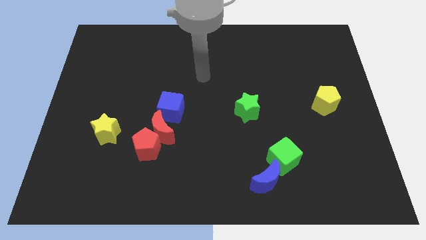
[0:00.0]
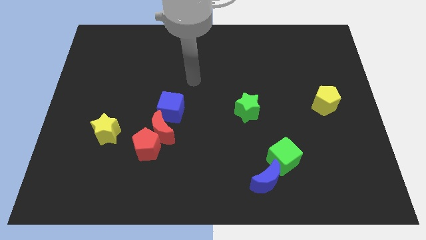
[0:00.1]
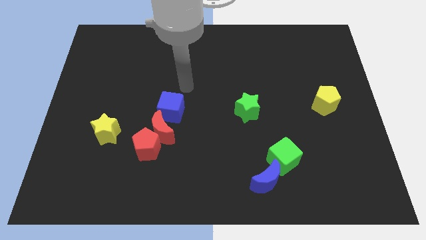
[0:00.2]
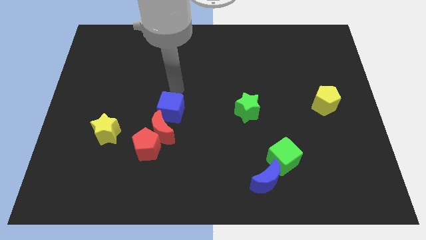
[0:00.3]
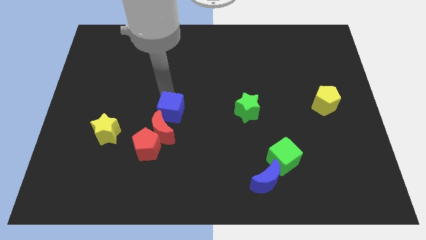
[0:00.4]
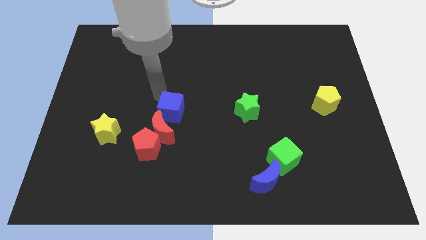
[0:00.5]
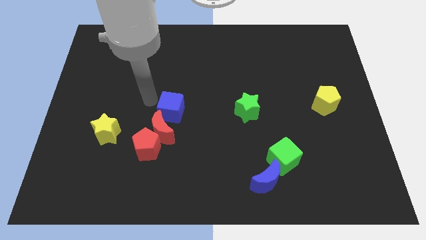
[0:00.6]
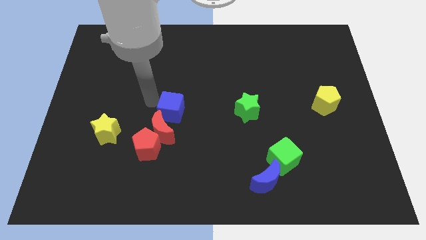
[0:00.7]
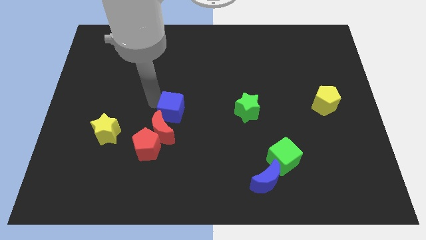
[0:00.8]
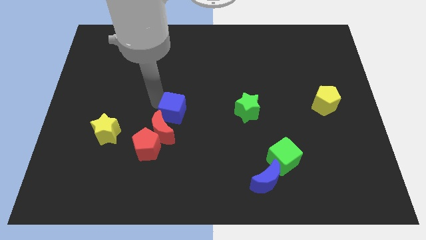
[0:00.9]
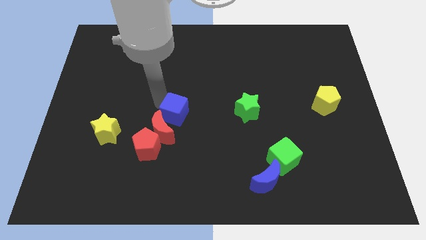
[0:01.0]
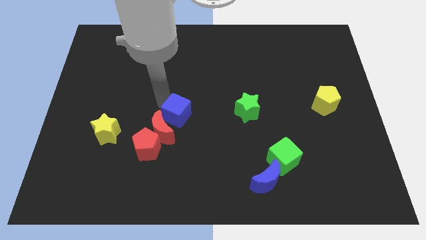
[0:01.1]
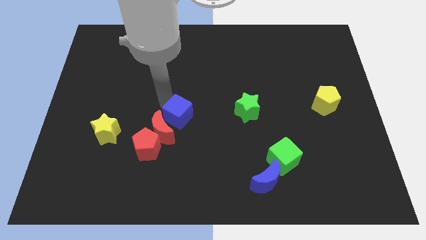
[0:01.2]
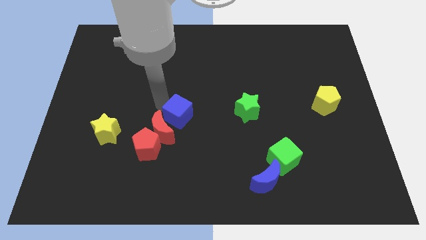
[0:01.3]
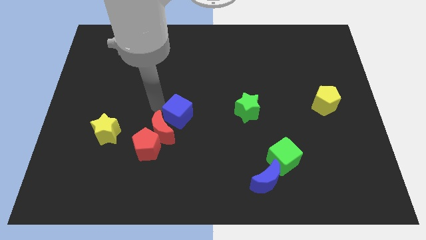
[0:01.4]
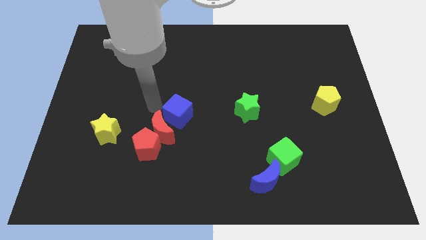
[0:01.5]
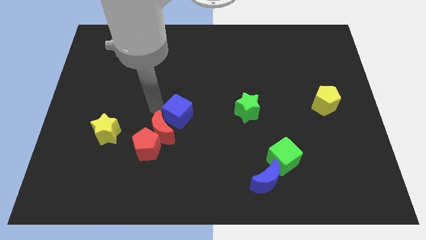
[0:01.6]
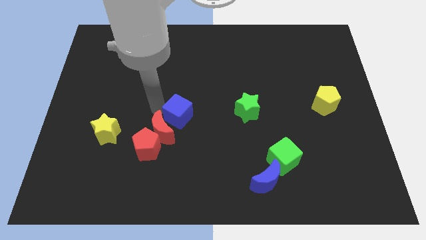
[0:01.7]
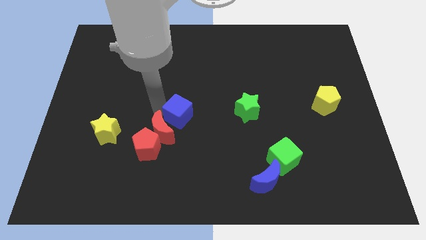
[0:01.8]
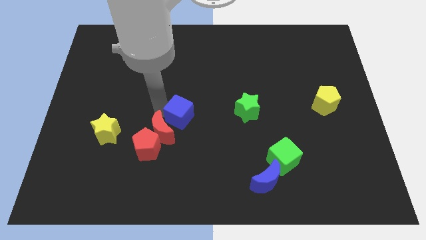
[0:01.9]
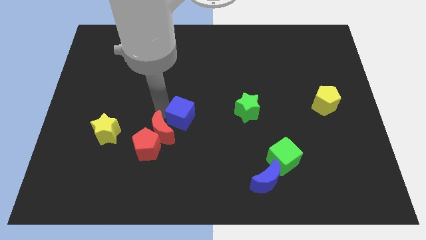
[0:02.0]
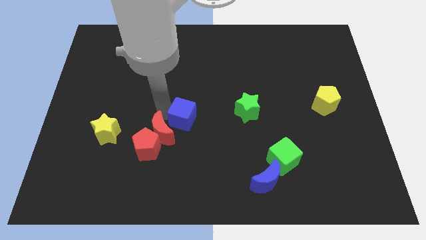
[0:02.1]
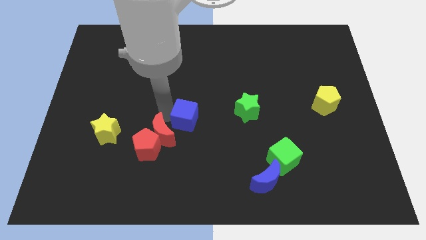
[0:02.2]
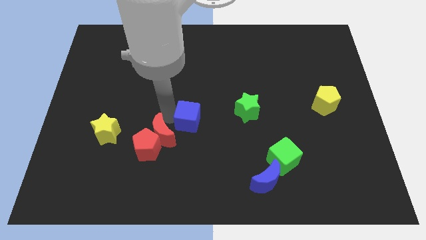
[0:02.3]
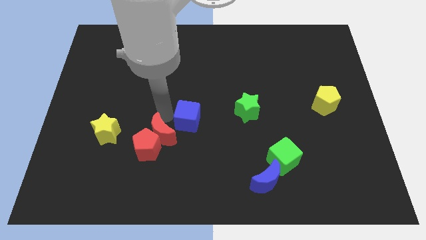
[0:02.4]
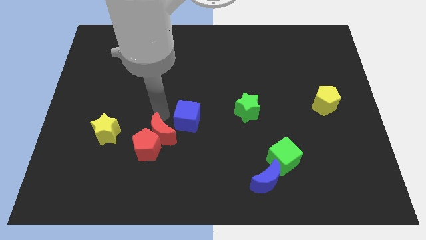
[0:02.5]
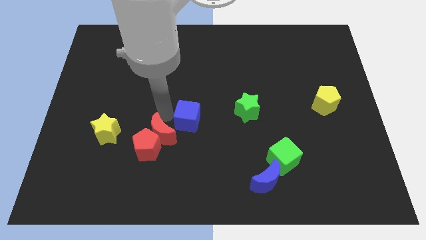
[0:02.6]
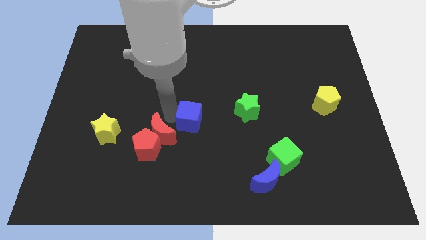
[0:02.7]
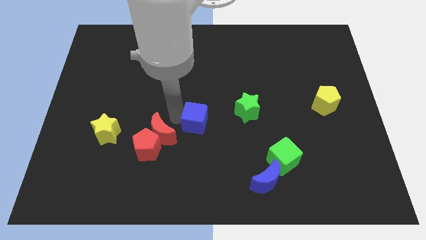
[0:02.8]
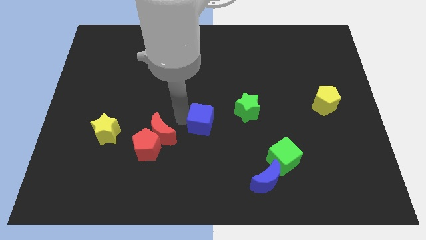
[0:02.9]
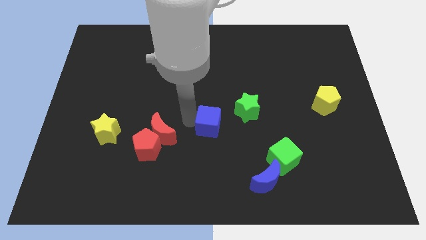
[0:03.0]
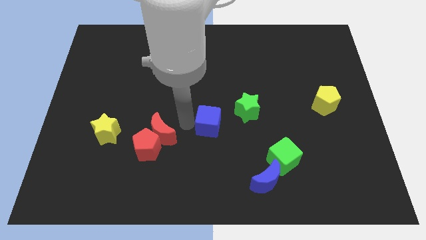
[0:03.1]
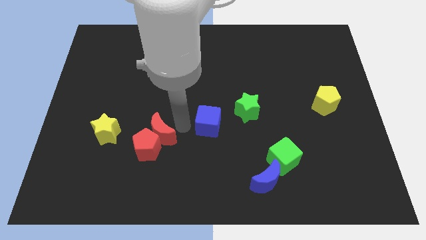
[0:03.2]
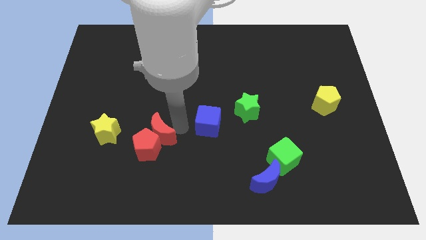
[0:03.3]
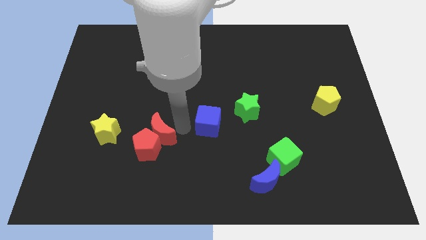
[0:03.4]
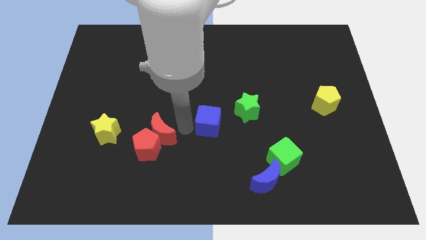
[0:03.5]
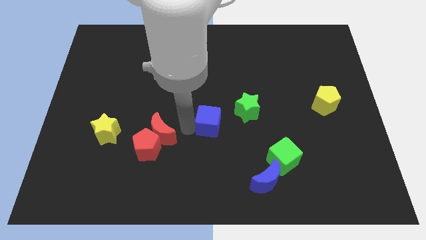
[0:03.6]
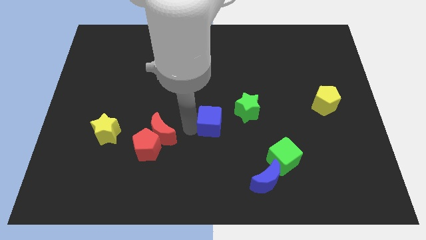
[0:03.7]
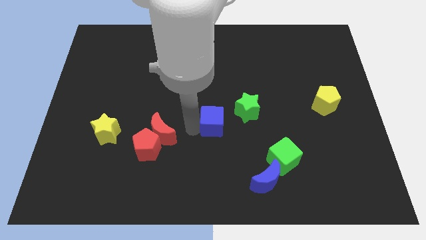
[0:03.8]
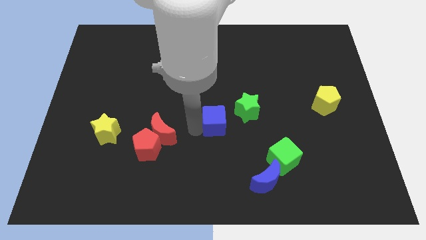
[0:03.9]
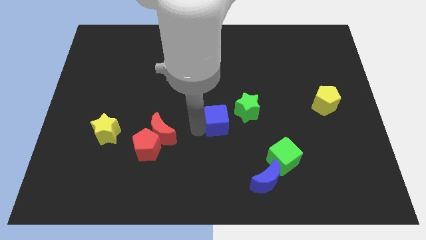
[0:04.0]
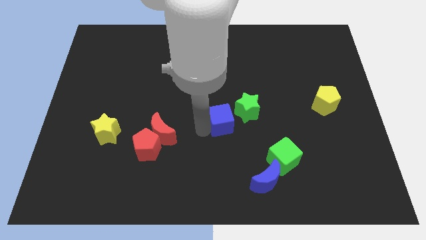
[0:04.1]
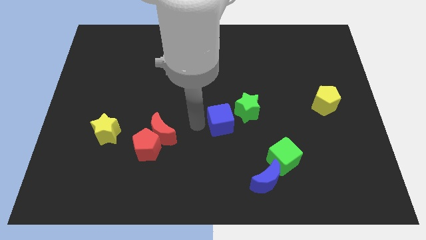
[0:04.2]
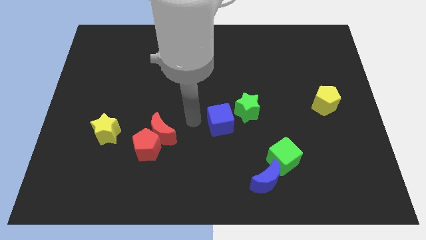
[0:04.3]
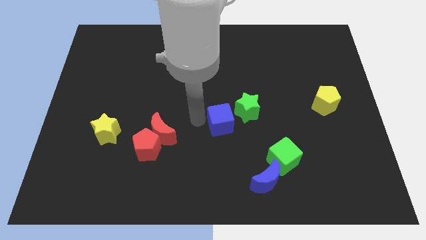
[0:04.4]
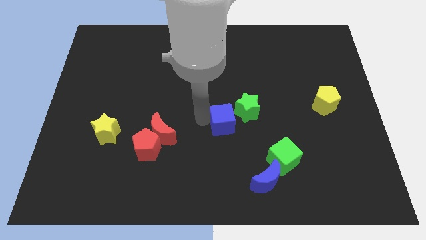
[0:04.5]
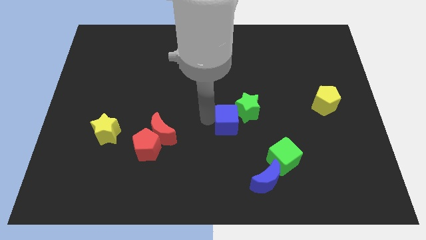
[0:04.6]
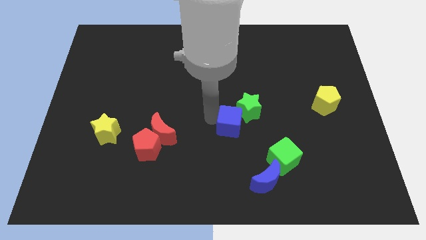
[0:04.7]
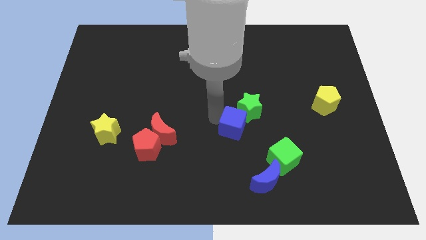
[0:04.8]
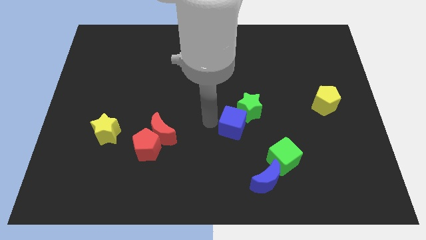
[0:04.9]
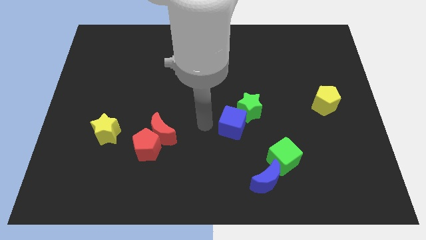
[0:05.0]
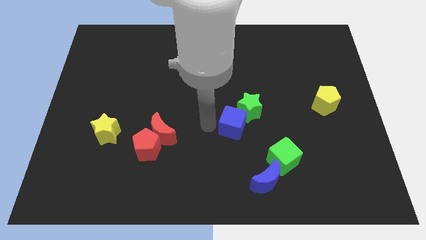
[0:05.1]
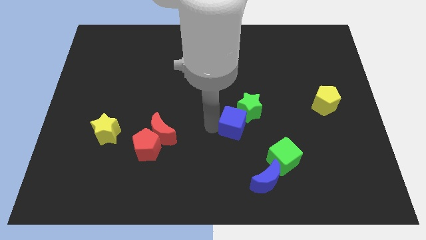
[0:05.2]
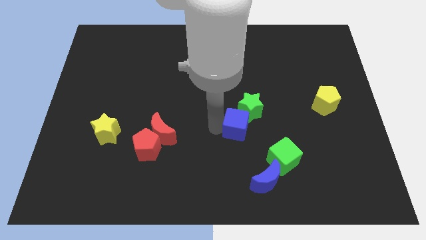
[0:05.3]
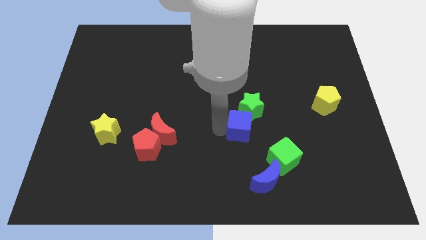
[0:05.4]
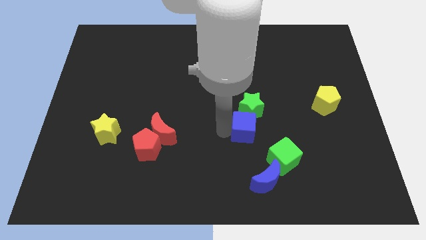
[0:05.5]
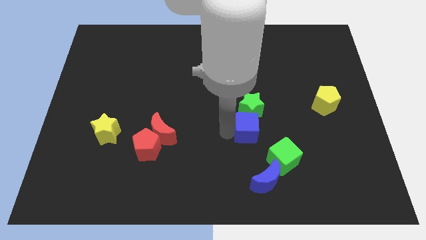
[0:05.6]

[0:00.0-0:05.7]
move the blue cube diagonally down and to the right of the green star

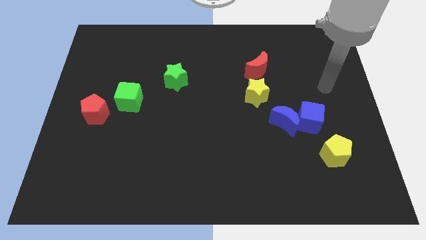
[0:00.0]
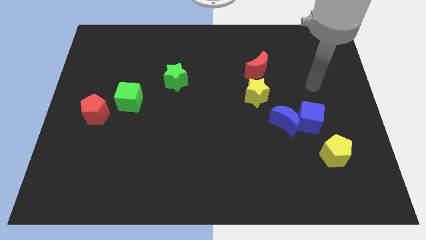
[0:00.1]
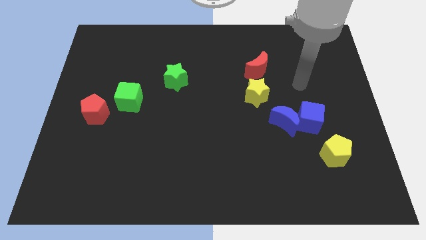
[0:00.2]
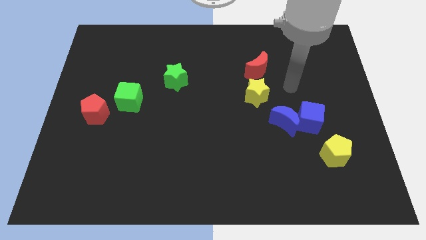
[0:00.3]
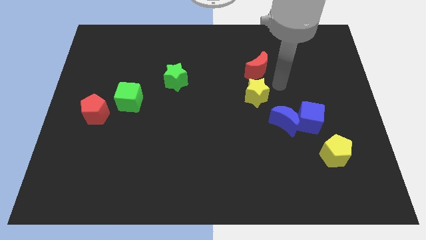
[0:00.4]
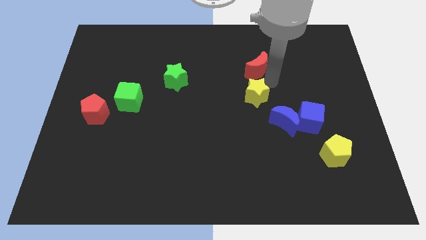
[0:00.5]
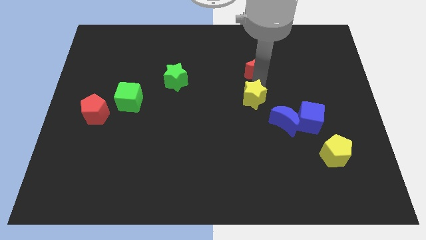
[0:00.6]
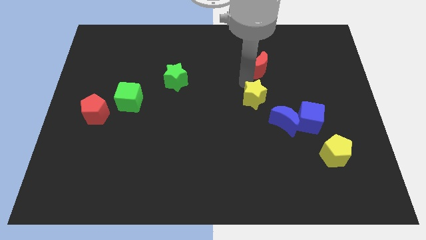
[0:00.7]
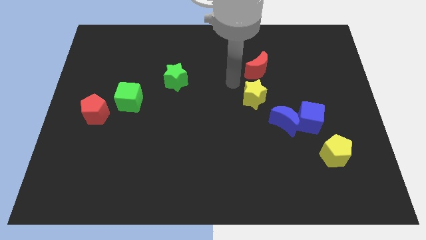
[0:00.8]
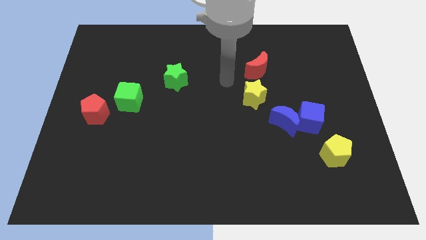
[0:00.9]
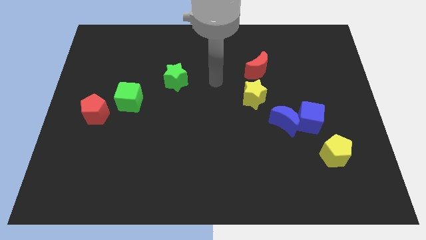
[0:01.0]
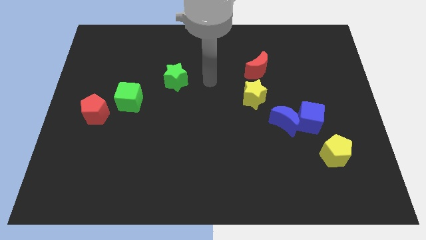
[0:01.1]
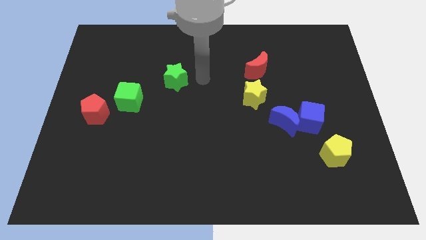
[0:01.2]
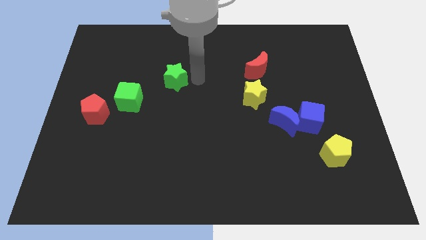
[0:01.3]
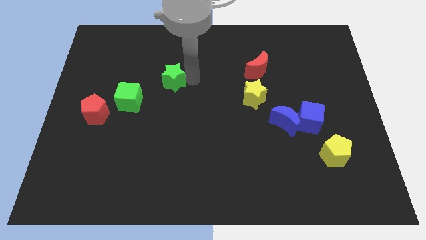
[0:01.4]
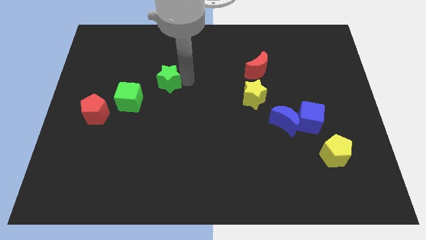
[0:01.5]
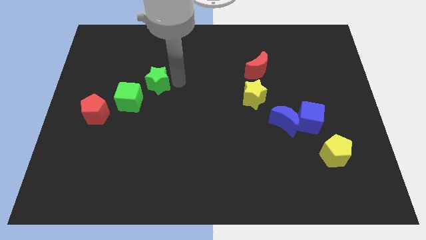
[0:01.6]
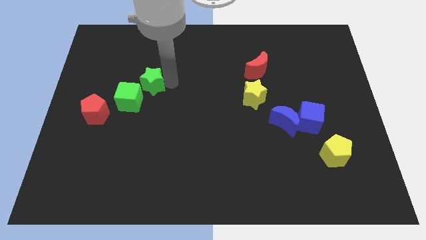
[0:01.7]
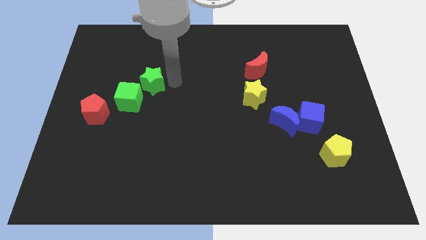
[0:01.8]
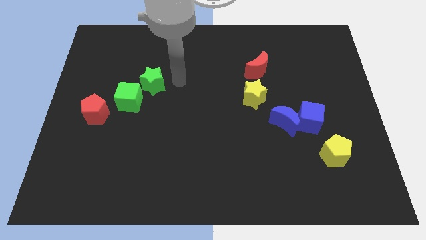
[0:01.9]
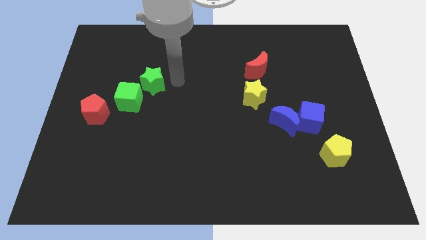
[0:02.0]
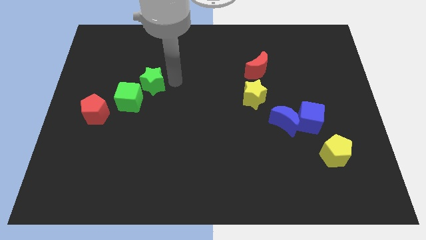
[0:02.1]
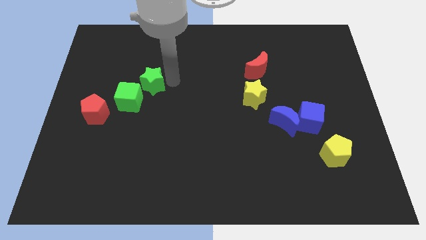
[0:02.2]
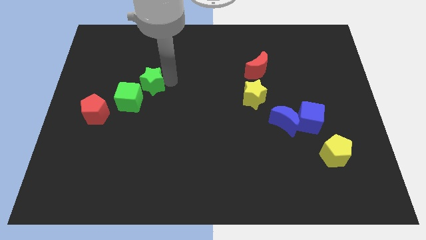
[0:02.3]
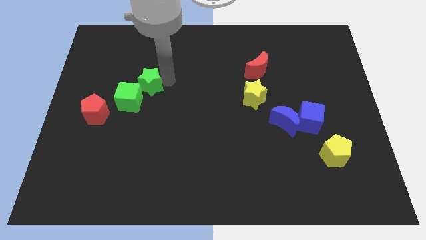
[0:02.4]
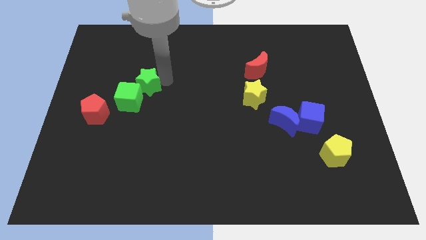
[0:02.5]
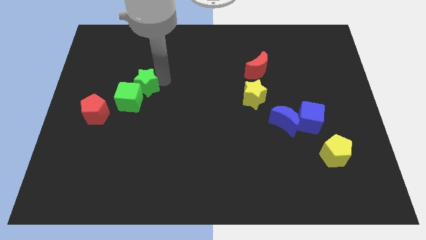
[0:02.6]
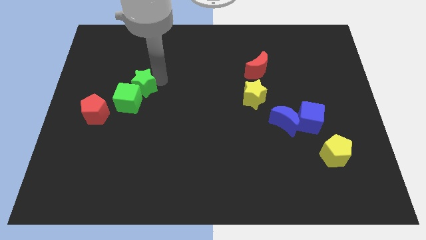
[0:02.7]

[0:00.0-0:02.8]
put the green star to the top right side of the red pentagon
